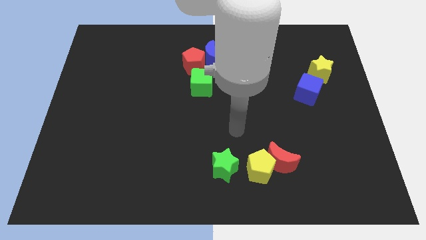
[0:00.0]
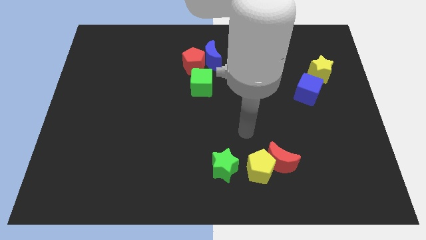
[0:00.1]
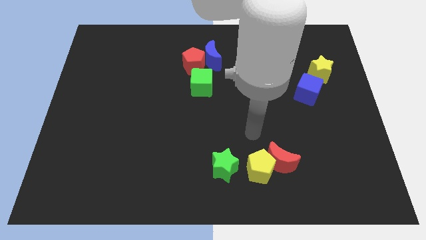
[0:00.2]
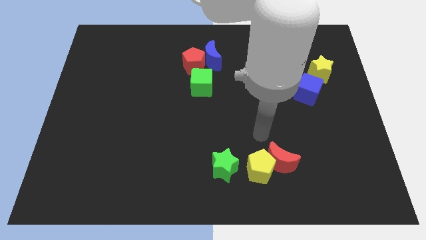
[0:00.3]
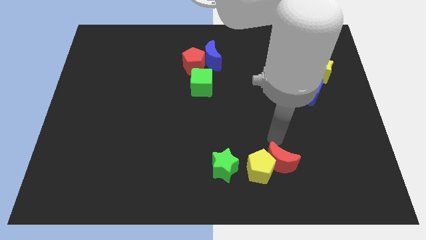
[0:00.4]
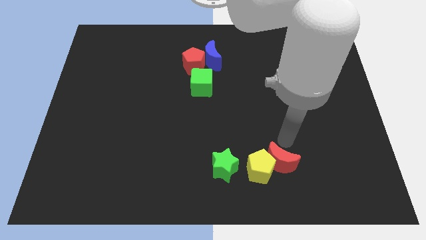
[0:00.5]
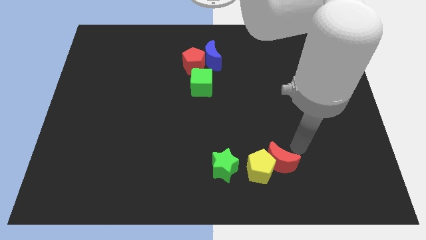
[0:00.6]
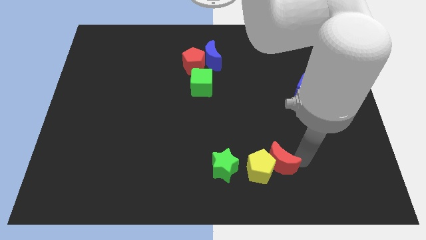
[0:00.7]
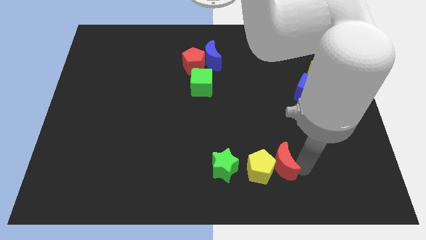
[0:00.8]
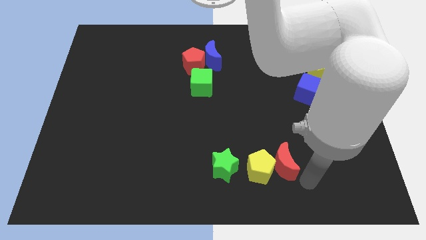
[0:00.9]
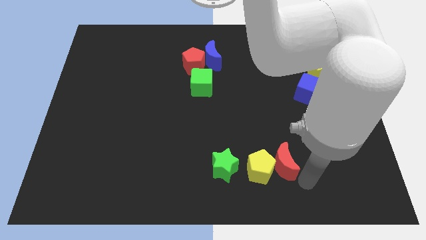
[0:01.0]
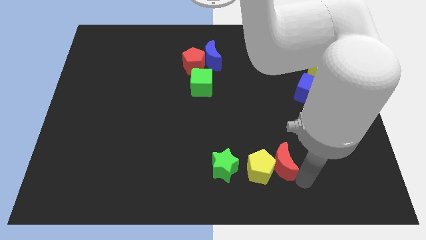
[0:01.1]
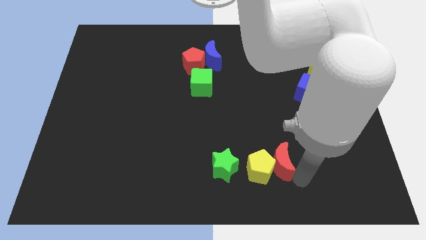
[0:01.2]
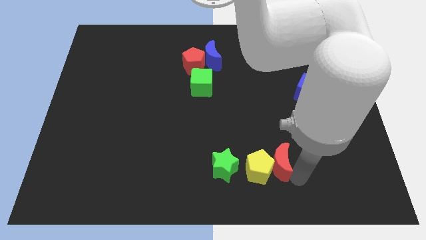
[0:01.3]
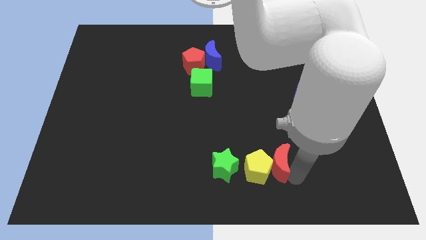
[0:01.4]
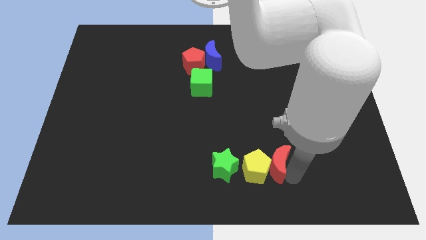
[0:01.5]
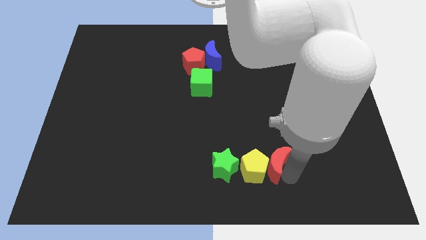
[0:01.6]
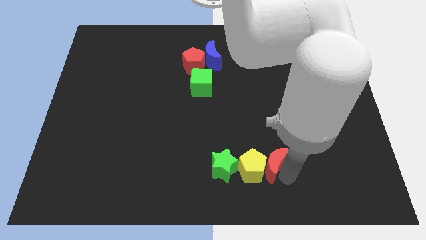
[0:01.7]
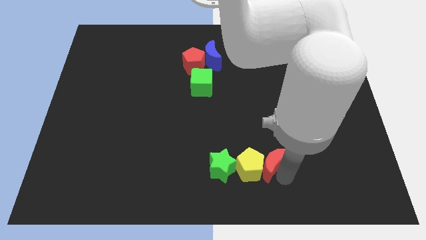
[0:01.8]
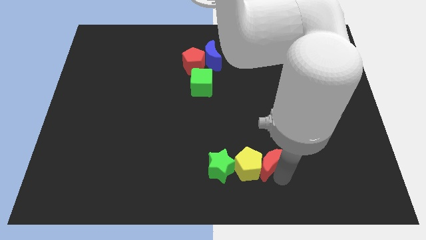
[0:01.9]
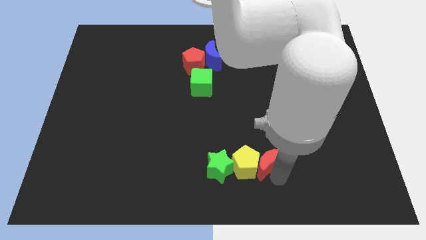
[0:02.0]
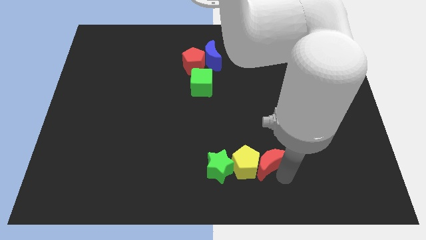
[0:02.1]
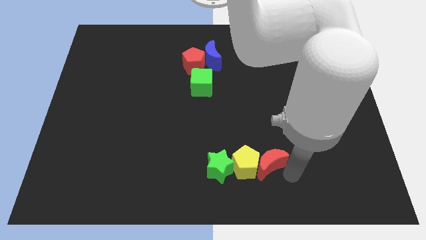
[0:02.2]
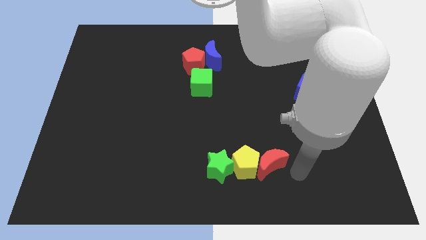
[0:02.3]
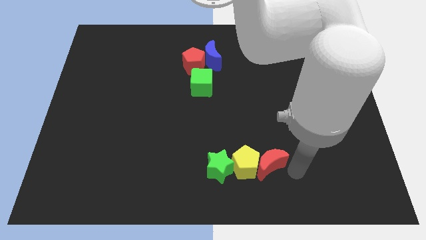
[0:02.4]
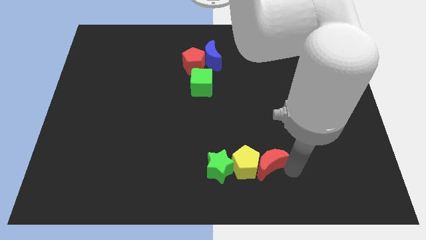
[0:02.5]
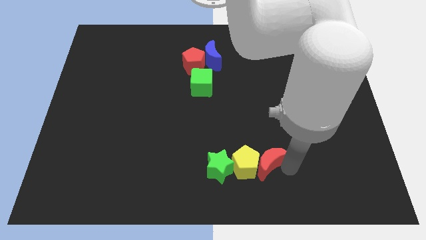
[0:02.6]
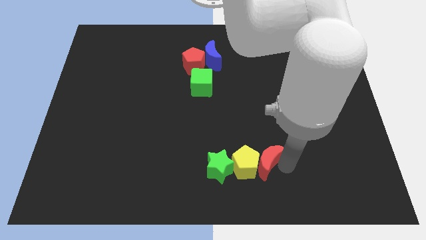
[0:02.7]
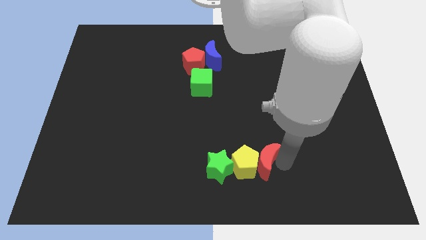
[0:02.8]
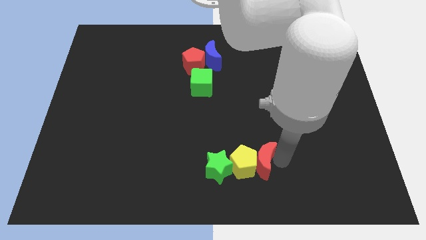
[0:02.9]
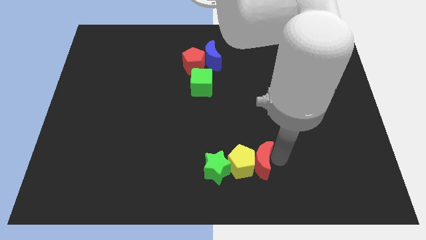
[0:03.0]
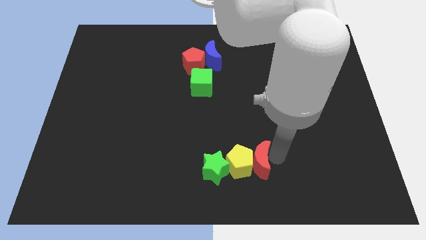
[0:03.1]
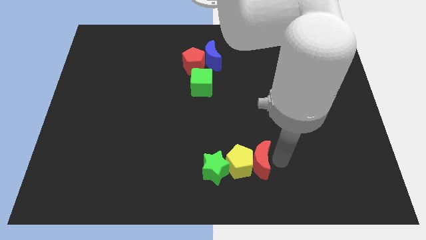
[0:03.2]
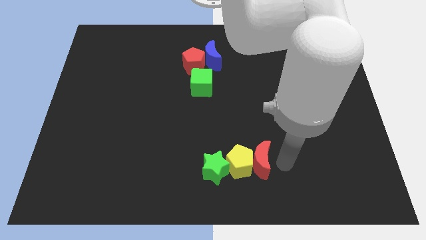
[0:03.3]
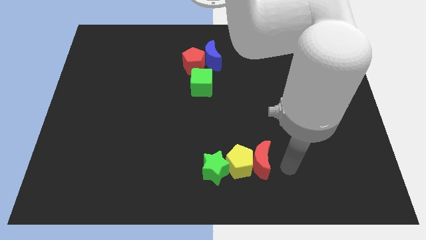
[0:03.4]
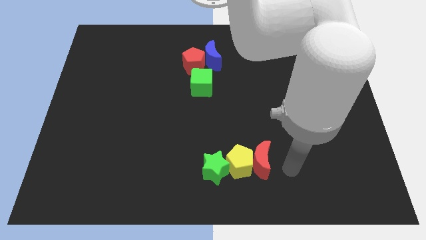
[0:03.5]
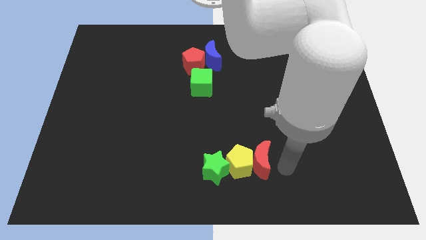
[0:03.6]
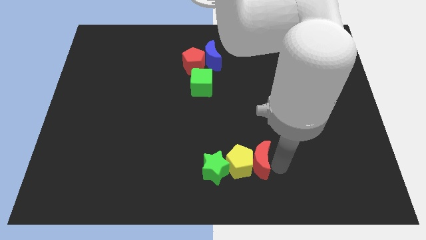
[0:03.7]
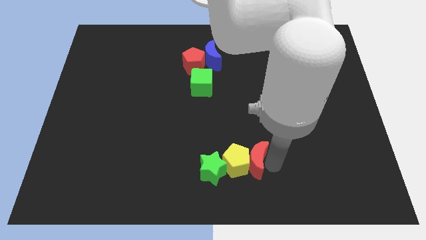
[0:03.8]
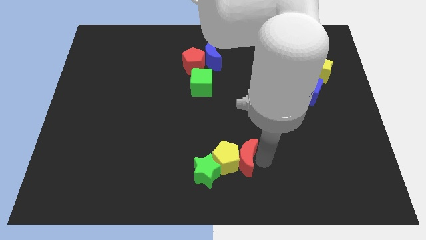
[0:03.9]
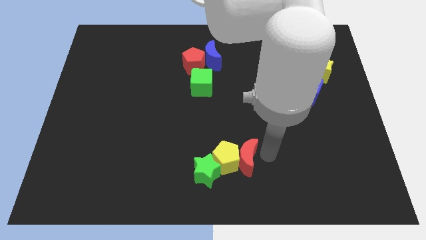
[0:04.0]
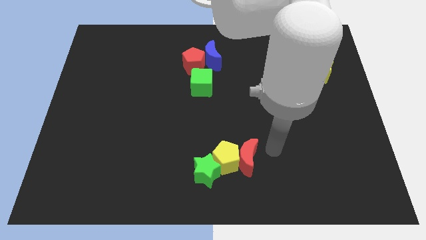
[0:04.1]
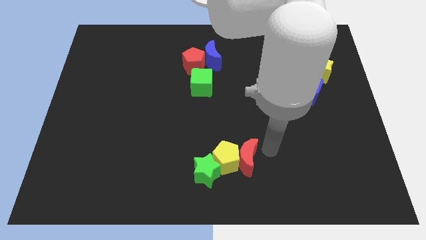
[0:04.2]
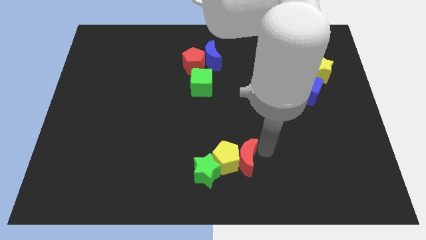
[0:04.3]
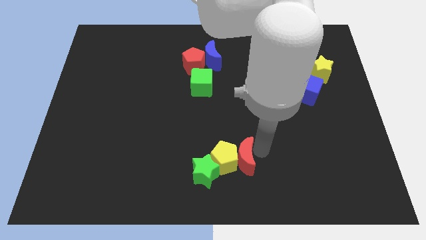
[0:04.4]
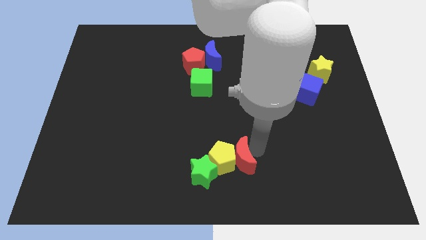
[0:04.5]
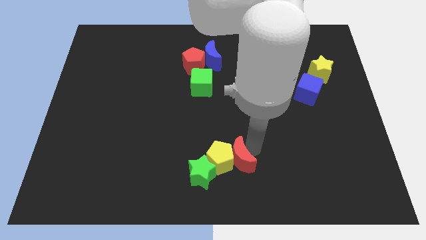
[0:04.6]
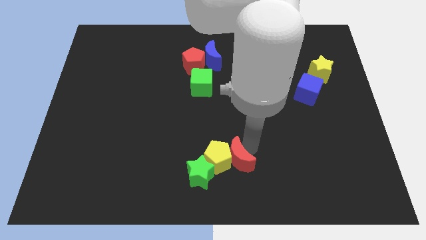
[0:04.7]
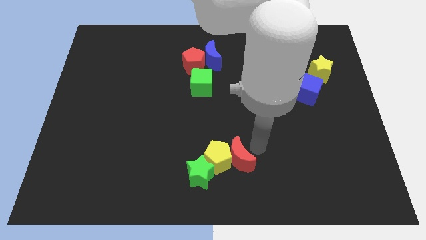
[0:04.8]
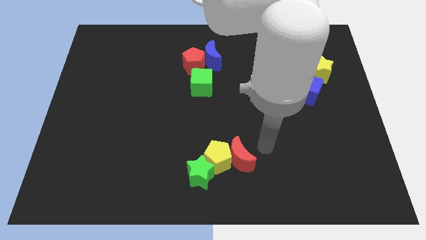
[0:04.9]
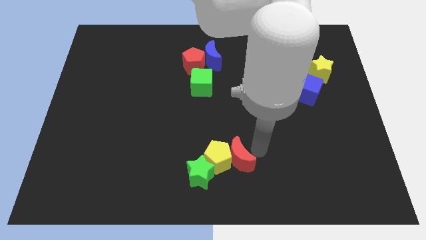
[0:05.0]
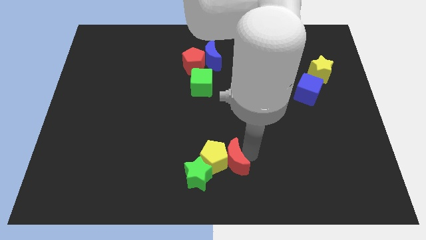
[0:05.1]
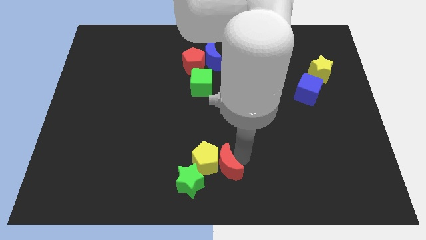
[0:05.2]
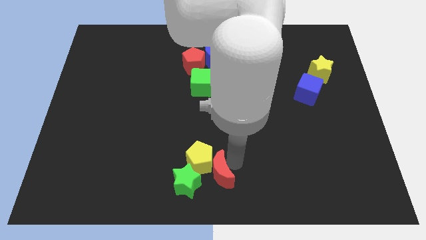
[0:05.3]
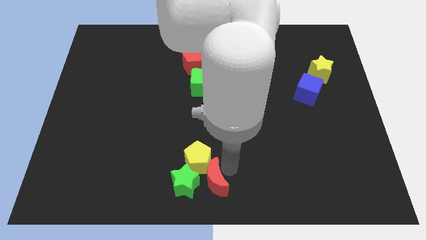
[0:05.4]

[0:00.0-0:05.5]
push the red moon close to the green star

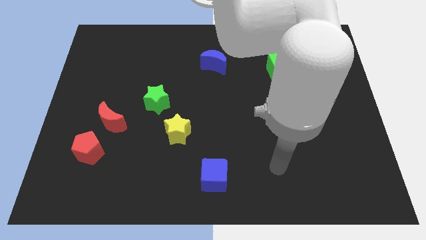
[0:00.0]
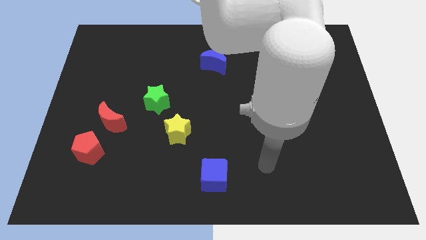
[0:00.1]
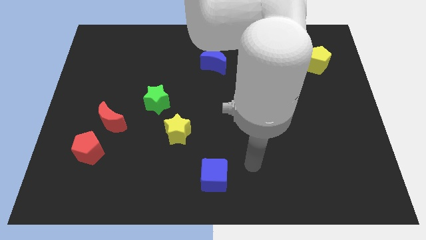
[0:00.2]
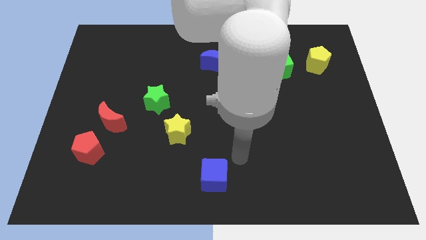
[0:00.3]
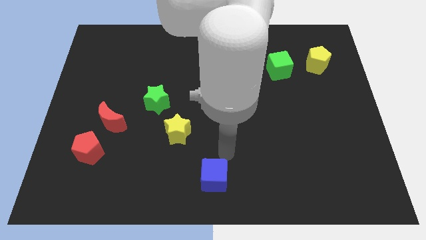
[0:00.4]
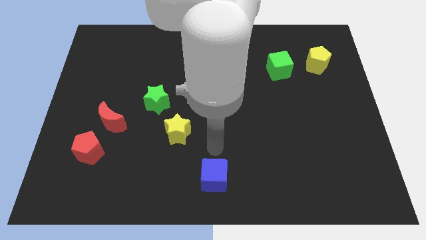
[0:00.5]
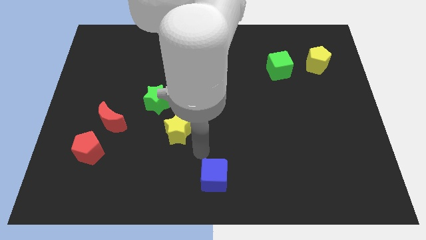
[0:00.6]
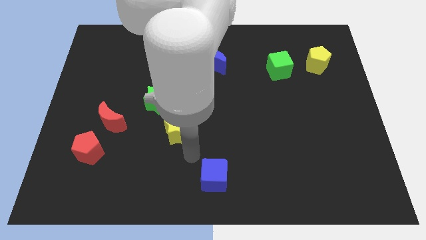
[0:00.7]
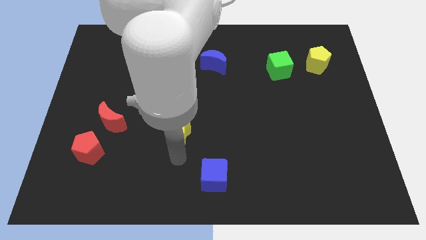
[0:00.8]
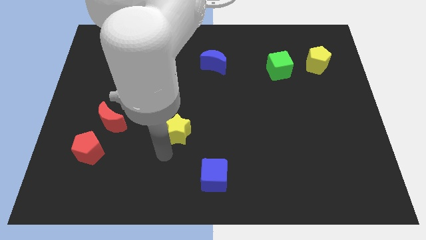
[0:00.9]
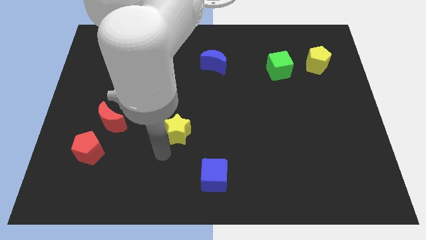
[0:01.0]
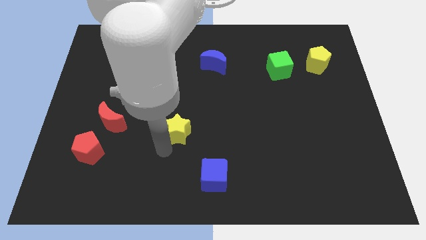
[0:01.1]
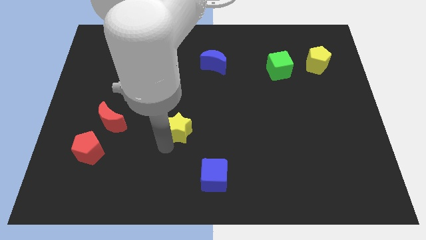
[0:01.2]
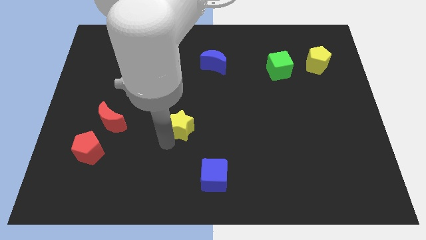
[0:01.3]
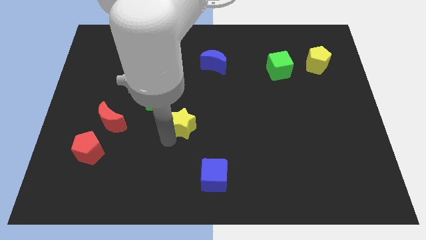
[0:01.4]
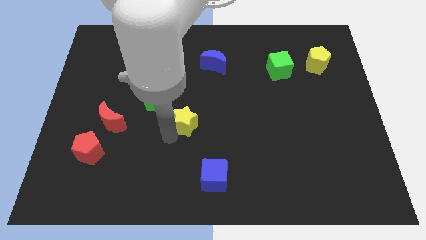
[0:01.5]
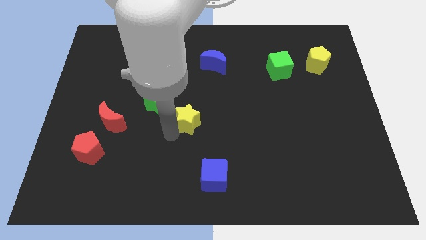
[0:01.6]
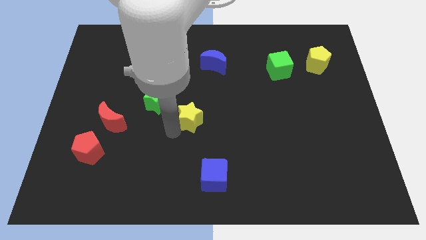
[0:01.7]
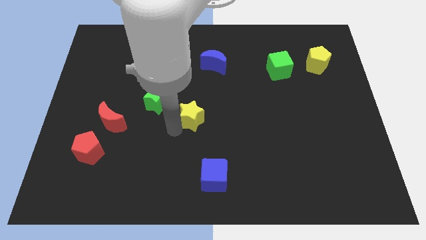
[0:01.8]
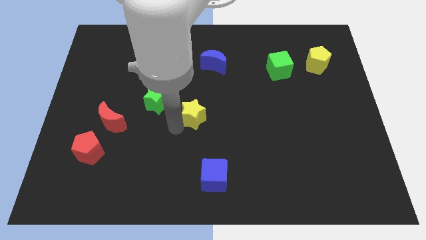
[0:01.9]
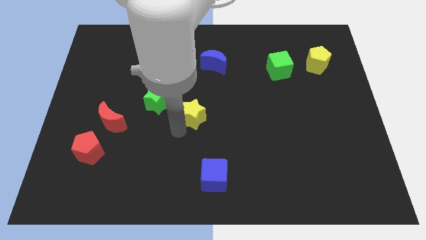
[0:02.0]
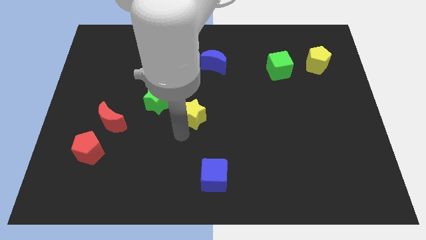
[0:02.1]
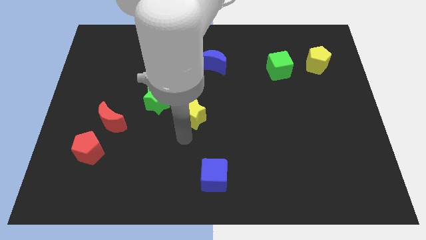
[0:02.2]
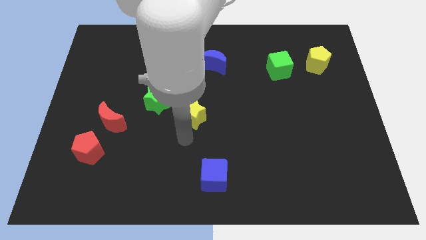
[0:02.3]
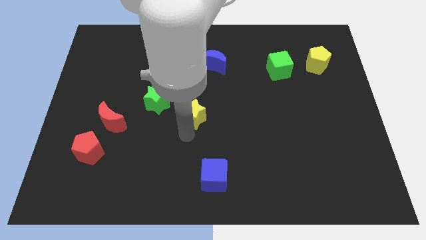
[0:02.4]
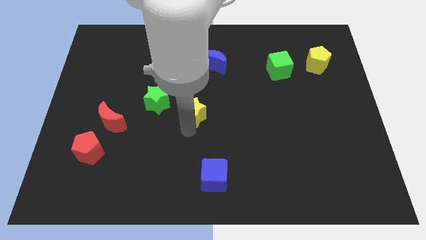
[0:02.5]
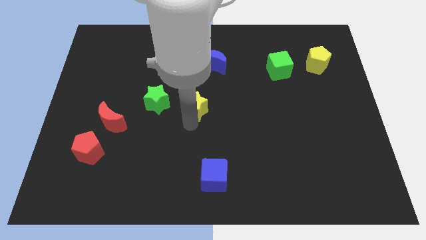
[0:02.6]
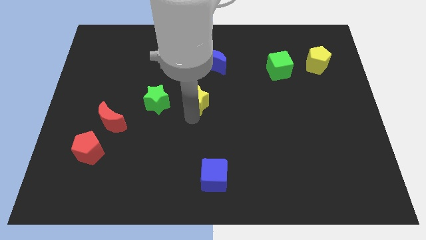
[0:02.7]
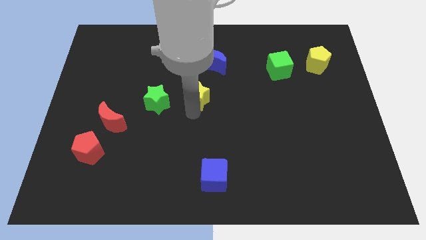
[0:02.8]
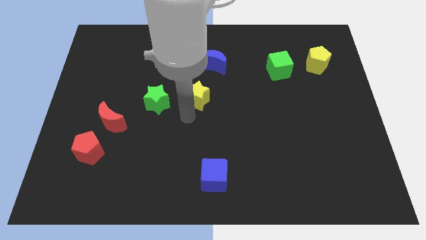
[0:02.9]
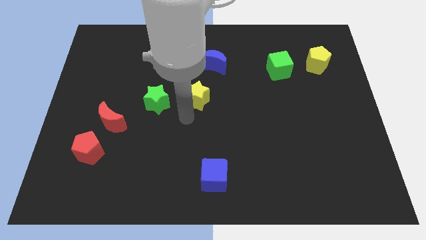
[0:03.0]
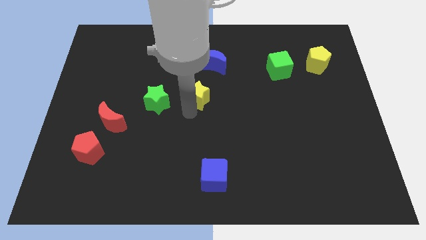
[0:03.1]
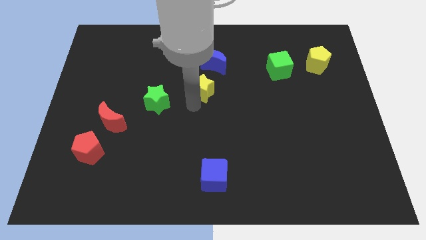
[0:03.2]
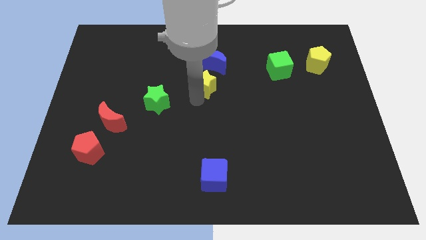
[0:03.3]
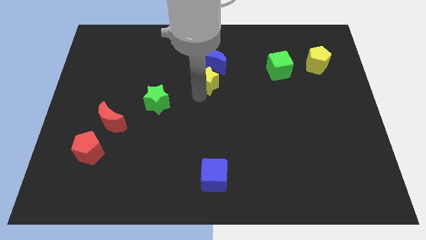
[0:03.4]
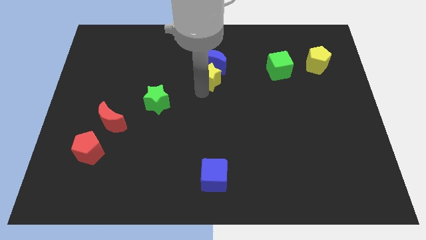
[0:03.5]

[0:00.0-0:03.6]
push the yellow star to the blue moon
